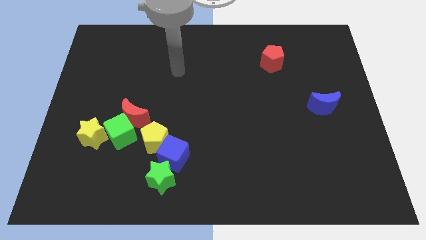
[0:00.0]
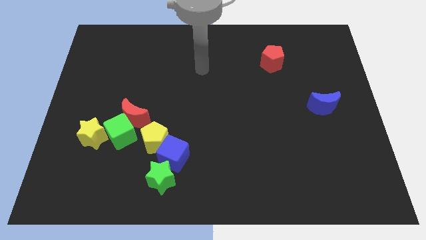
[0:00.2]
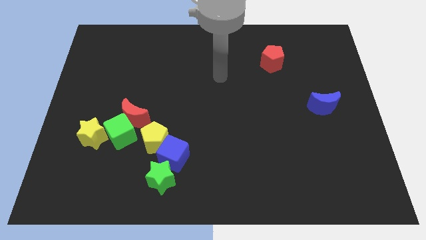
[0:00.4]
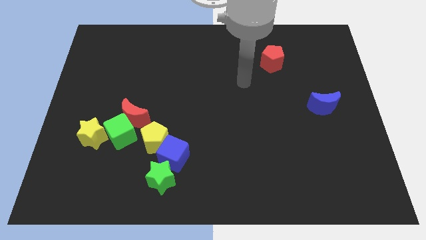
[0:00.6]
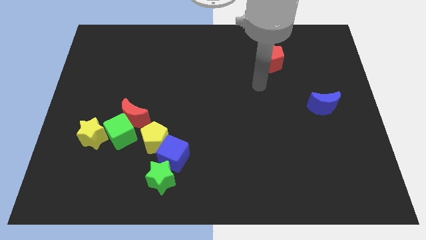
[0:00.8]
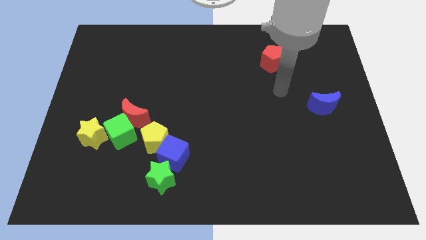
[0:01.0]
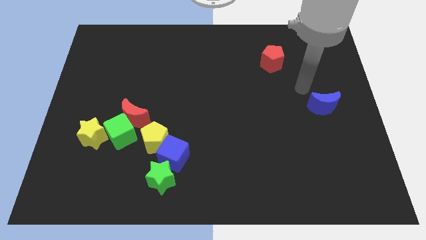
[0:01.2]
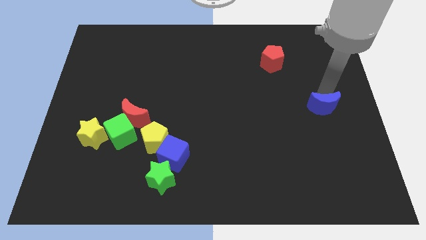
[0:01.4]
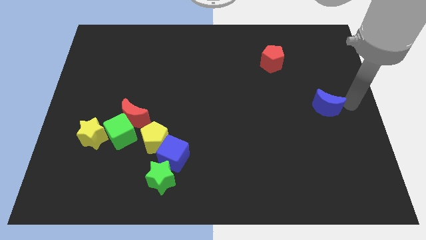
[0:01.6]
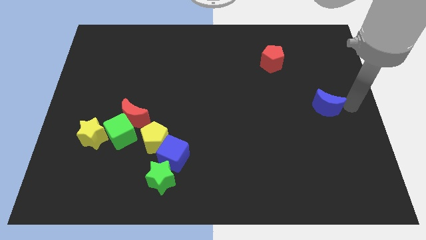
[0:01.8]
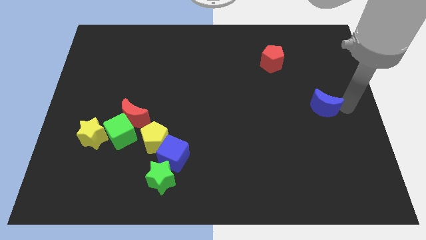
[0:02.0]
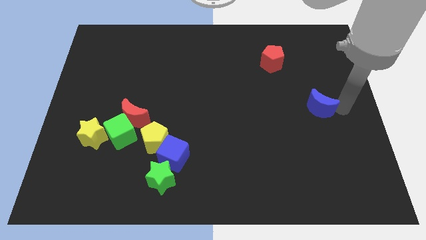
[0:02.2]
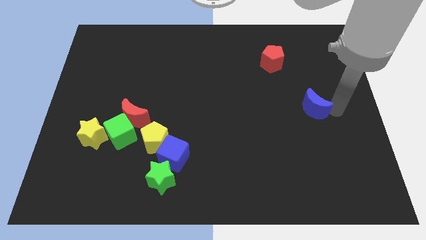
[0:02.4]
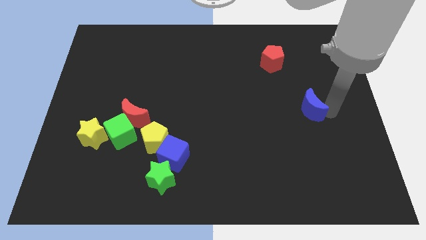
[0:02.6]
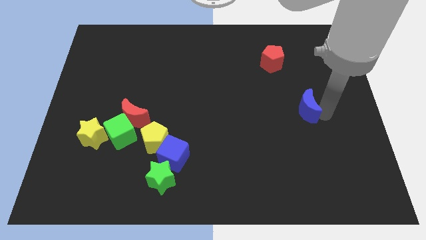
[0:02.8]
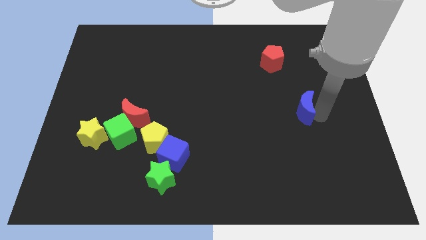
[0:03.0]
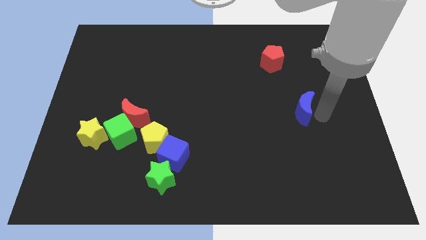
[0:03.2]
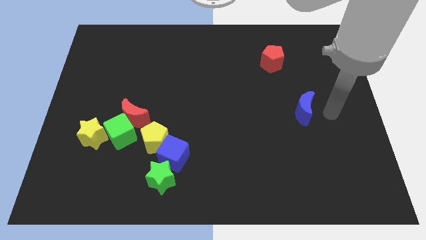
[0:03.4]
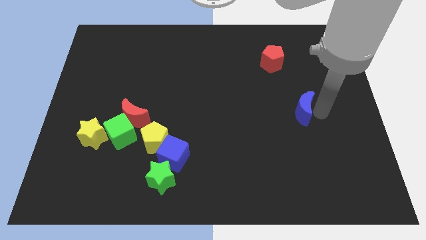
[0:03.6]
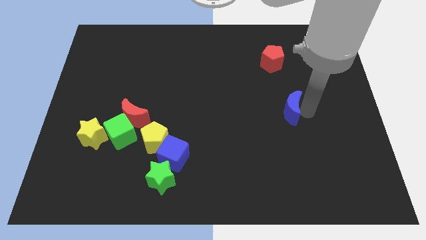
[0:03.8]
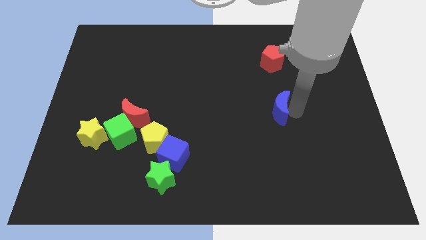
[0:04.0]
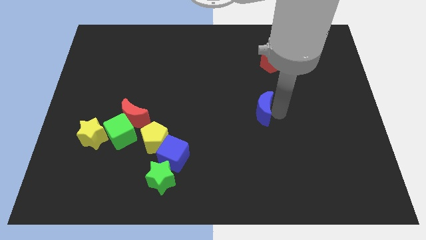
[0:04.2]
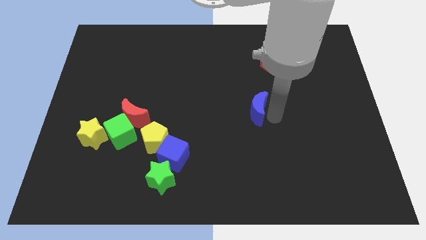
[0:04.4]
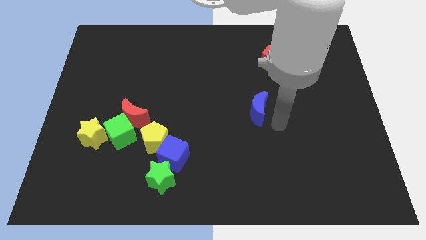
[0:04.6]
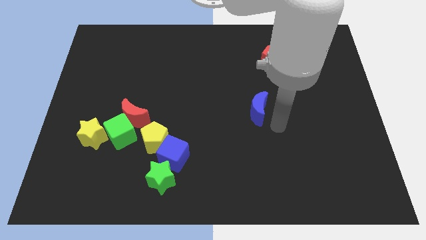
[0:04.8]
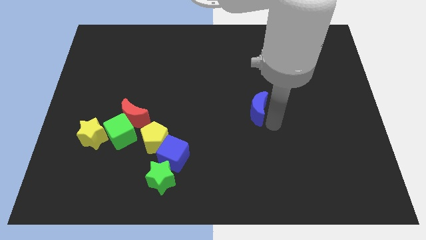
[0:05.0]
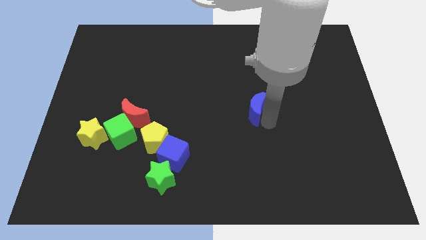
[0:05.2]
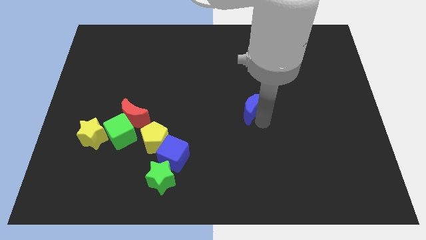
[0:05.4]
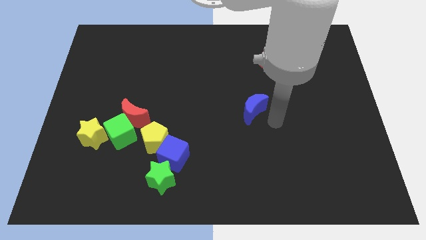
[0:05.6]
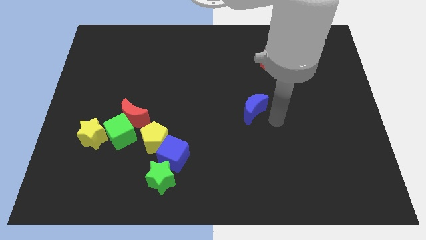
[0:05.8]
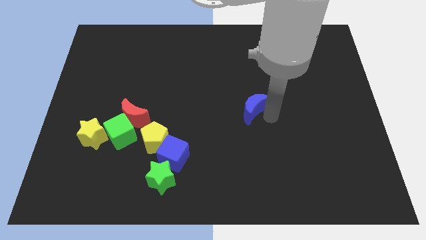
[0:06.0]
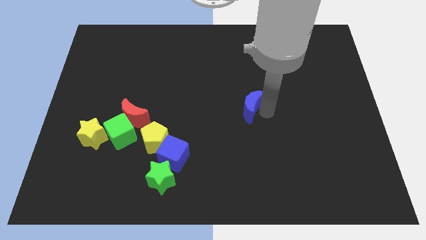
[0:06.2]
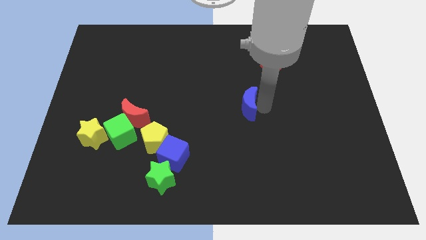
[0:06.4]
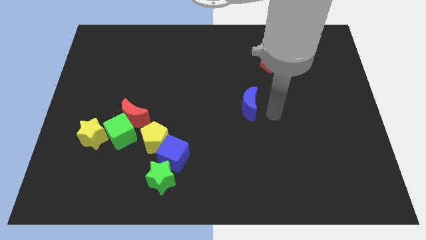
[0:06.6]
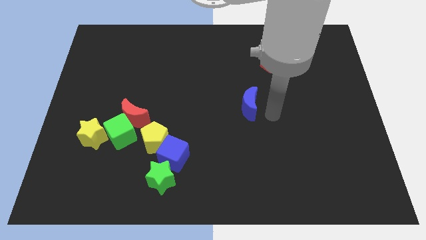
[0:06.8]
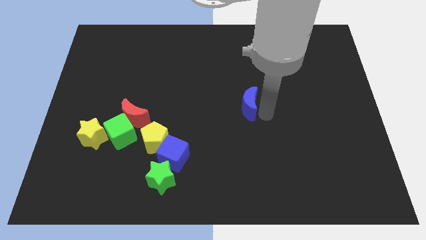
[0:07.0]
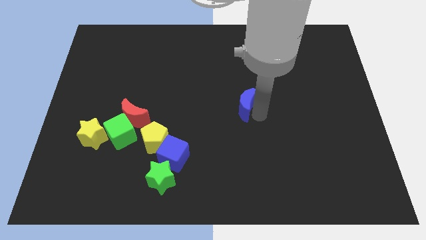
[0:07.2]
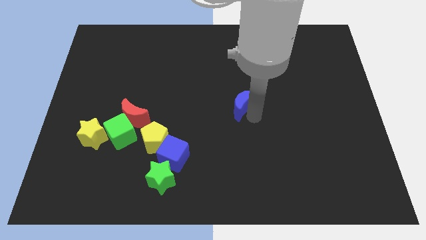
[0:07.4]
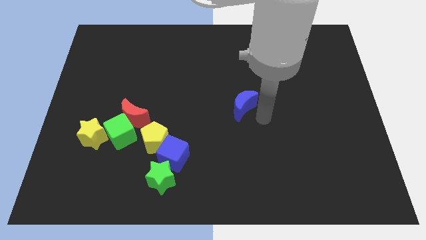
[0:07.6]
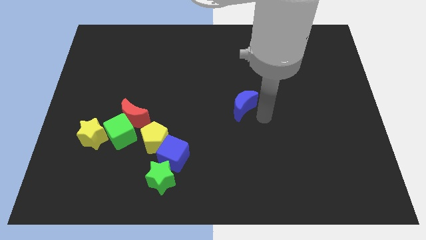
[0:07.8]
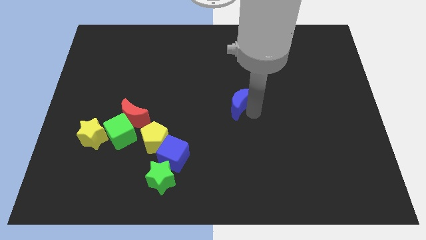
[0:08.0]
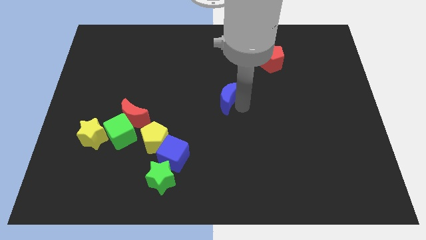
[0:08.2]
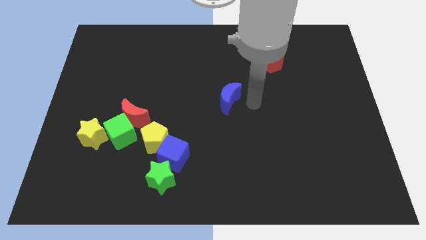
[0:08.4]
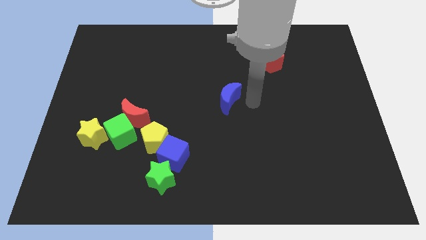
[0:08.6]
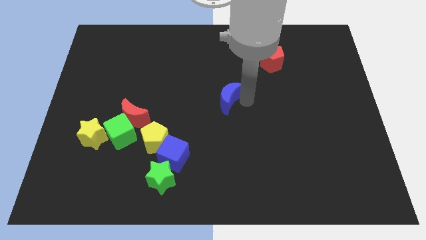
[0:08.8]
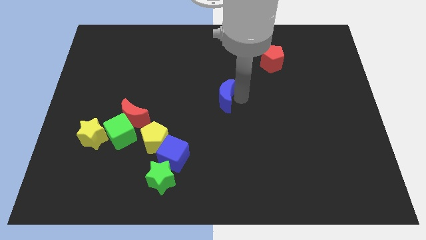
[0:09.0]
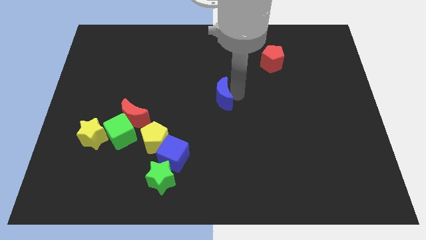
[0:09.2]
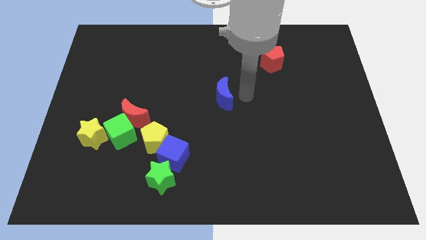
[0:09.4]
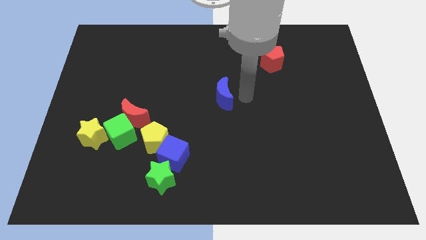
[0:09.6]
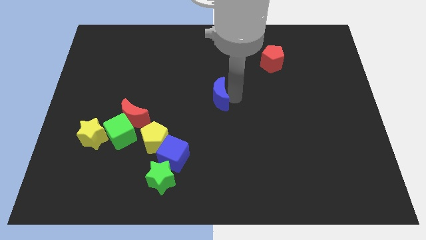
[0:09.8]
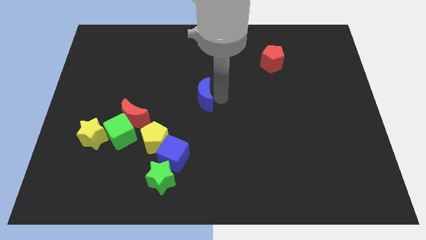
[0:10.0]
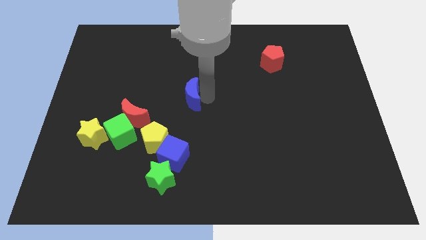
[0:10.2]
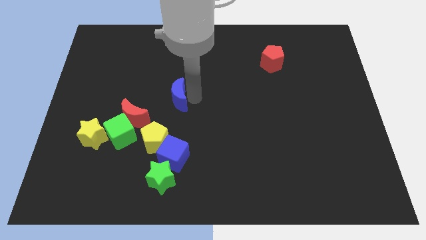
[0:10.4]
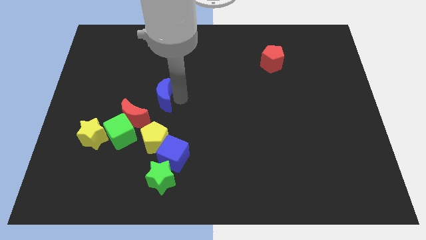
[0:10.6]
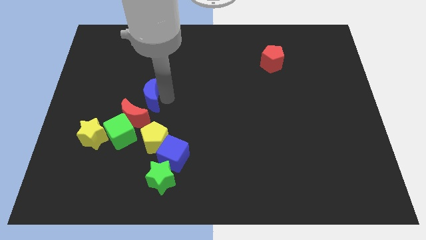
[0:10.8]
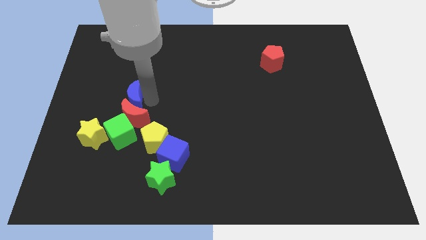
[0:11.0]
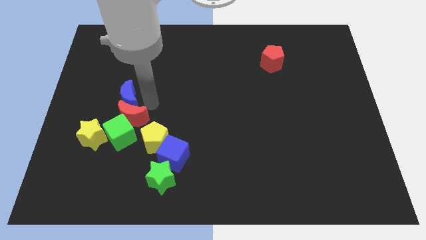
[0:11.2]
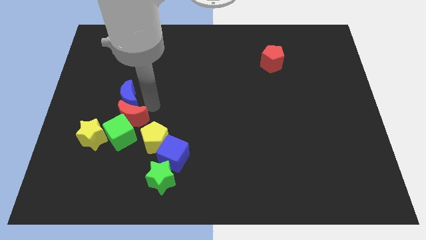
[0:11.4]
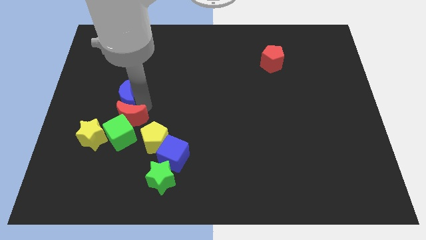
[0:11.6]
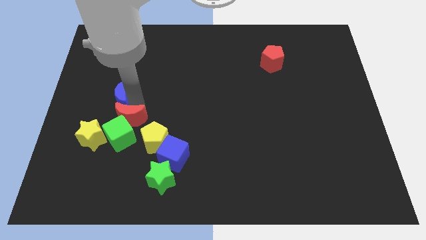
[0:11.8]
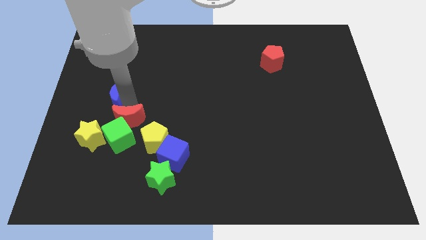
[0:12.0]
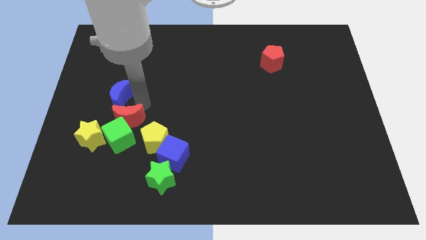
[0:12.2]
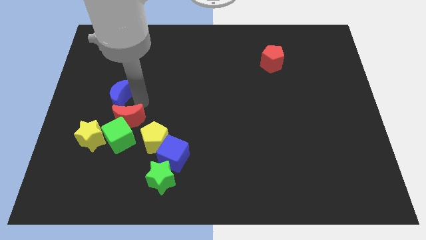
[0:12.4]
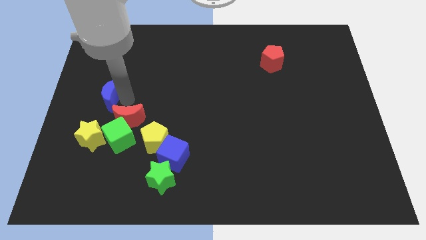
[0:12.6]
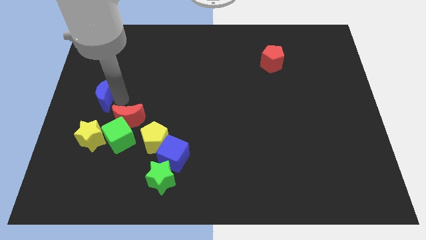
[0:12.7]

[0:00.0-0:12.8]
put the blue moon to the left side
